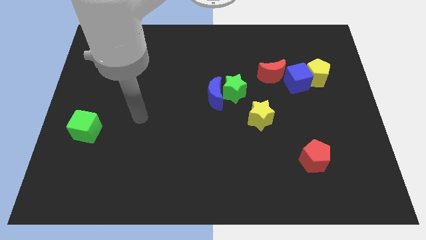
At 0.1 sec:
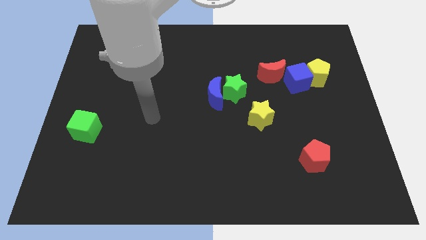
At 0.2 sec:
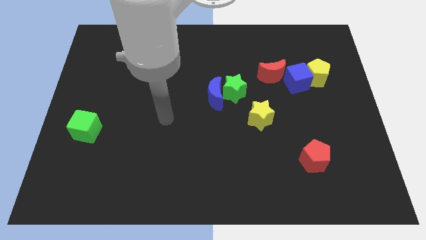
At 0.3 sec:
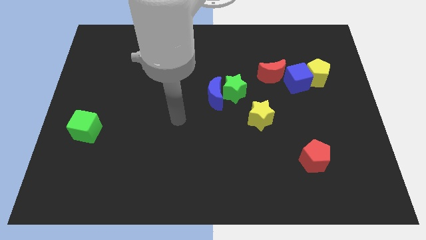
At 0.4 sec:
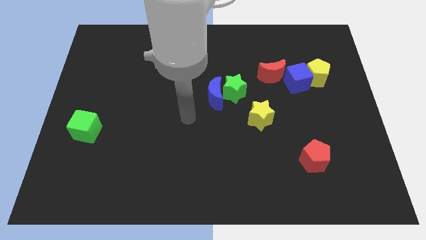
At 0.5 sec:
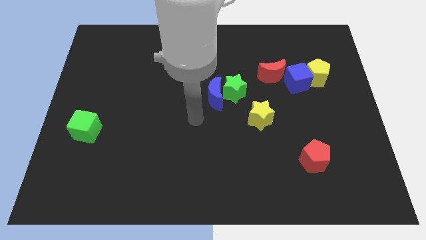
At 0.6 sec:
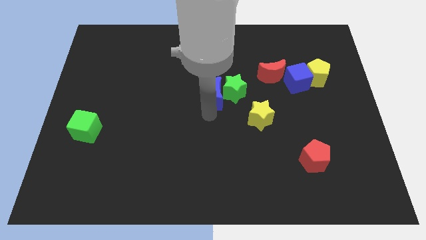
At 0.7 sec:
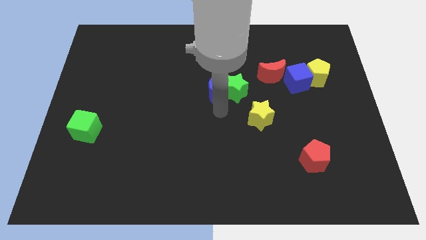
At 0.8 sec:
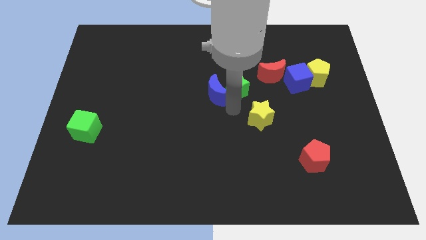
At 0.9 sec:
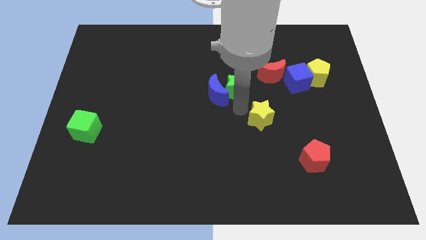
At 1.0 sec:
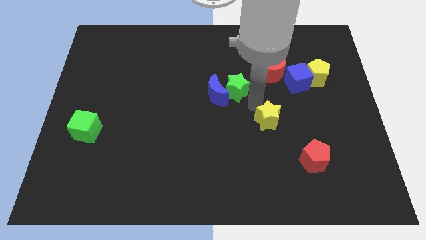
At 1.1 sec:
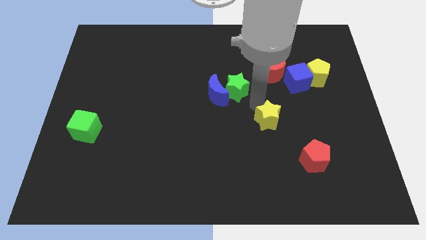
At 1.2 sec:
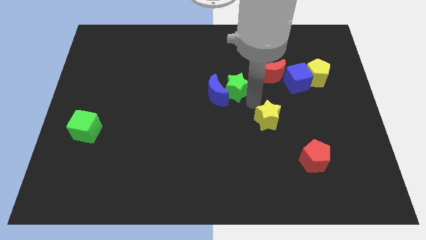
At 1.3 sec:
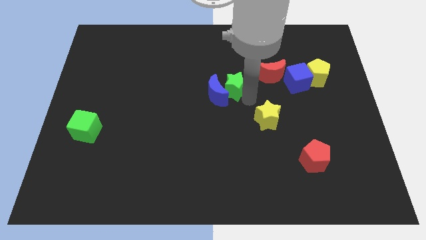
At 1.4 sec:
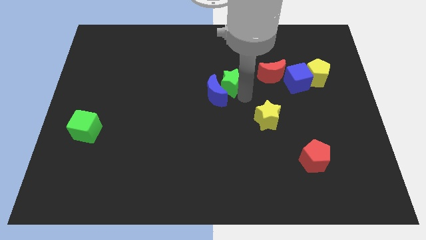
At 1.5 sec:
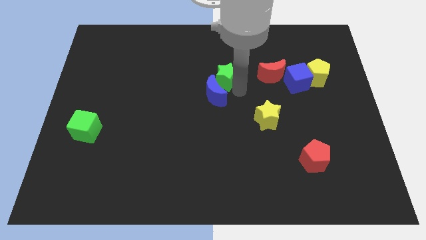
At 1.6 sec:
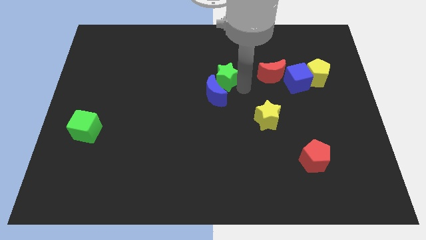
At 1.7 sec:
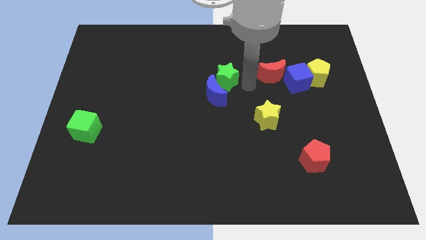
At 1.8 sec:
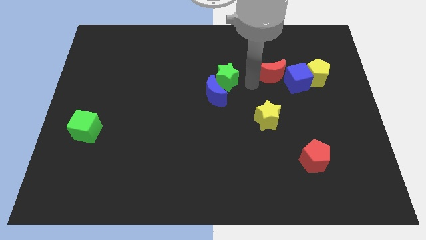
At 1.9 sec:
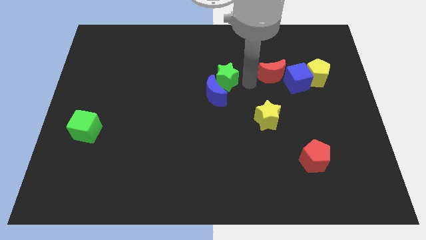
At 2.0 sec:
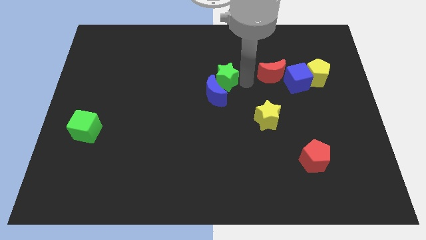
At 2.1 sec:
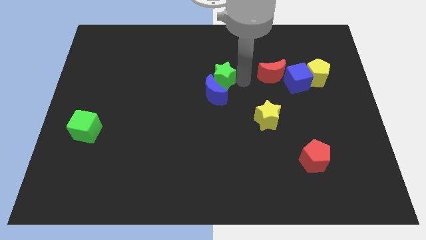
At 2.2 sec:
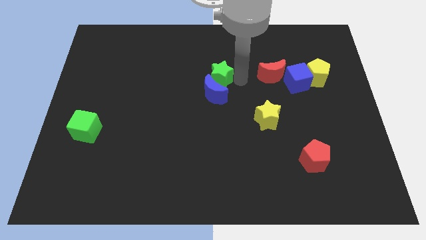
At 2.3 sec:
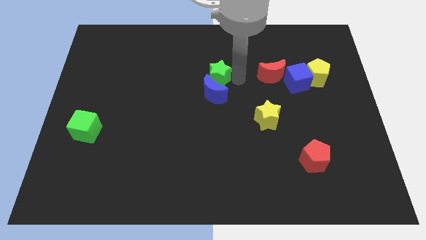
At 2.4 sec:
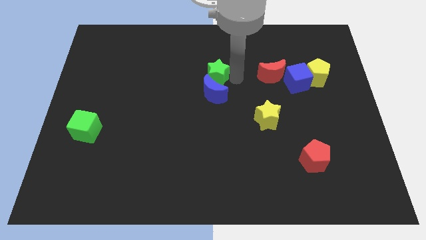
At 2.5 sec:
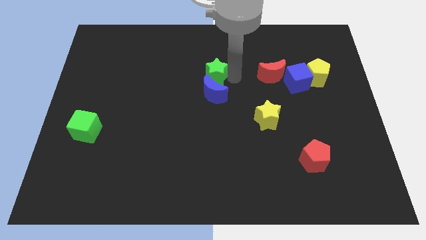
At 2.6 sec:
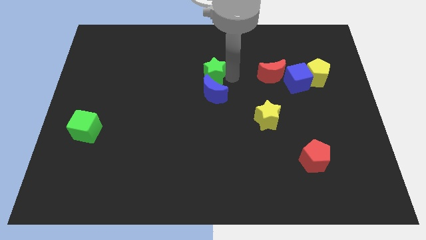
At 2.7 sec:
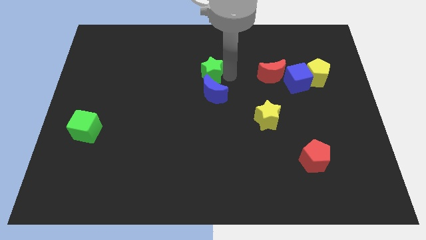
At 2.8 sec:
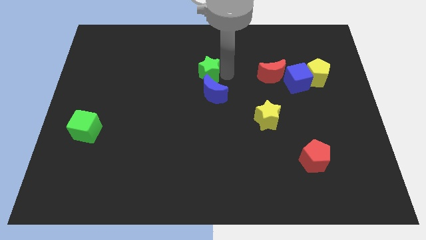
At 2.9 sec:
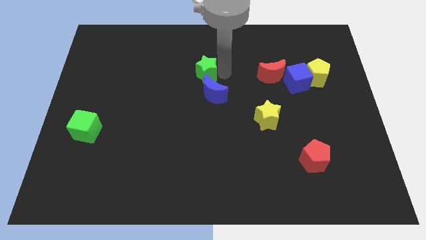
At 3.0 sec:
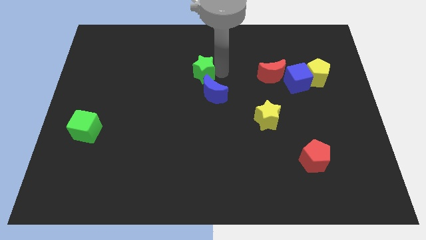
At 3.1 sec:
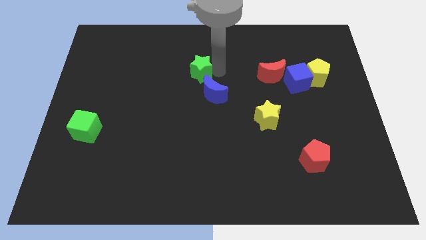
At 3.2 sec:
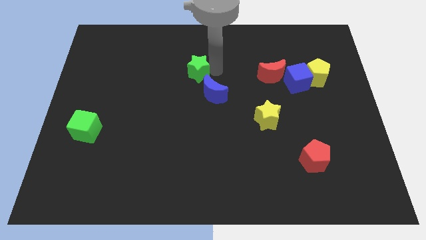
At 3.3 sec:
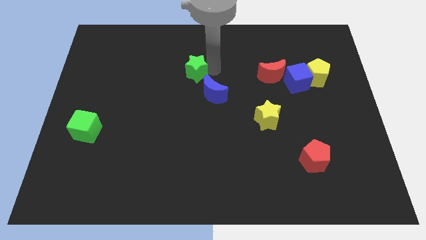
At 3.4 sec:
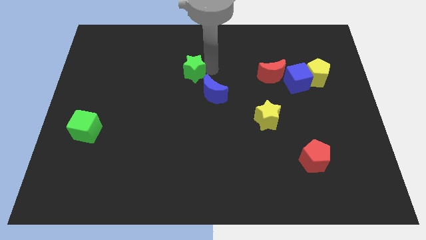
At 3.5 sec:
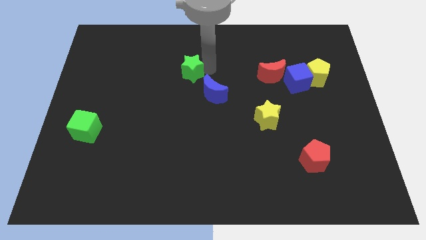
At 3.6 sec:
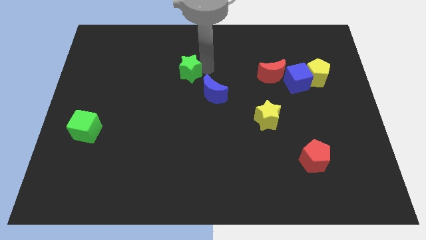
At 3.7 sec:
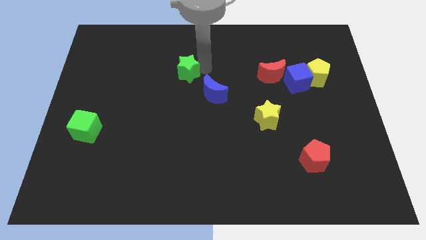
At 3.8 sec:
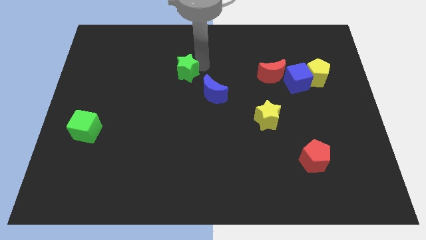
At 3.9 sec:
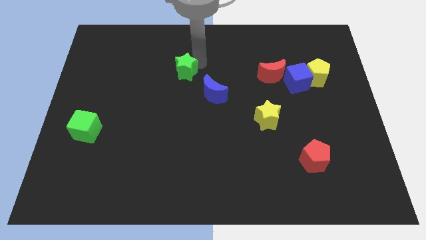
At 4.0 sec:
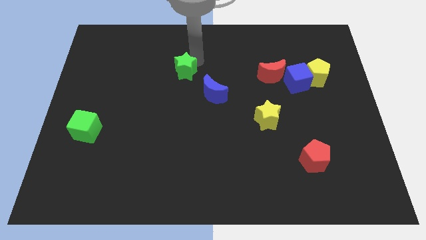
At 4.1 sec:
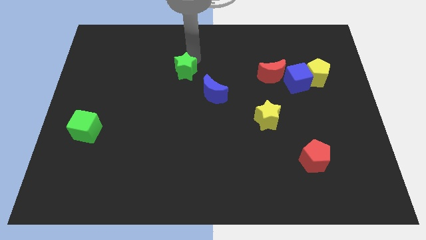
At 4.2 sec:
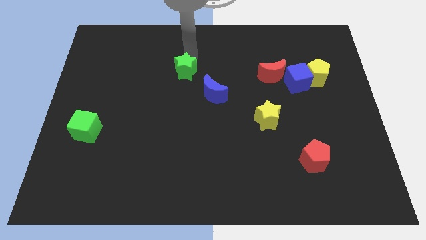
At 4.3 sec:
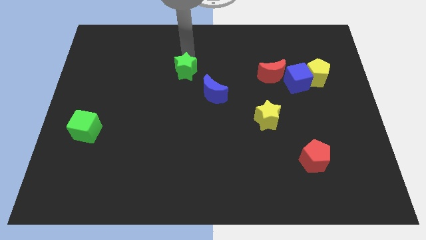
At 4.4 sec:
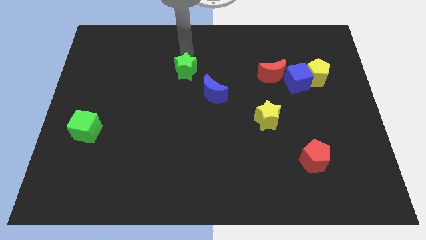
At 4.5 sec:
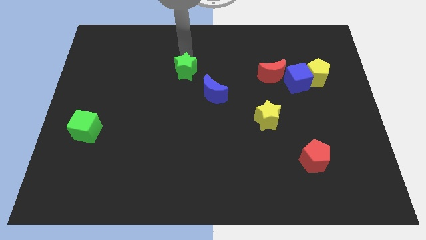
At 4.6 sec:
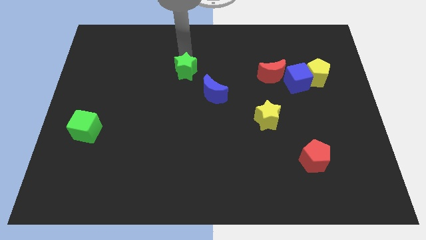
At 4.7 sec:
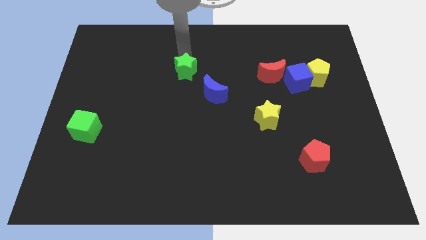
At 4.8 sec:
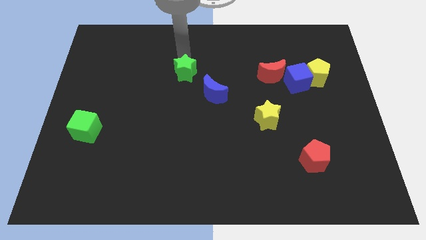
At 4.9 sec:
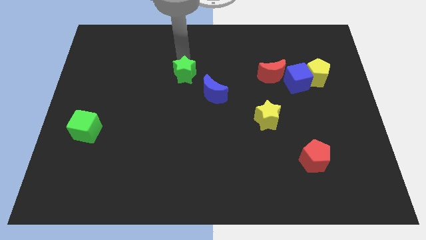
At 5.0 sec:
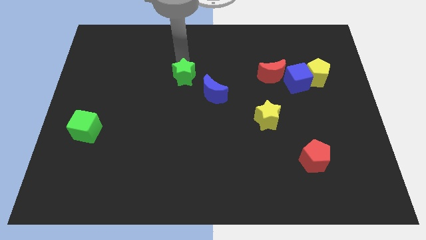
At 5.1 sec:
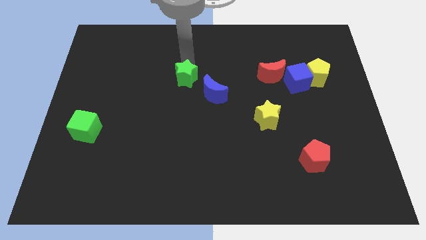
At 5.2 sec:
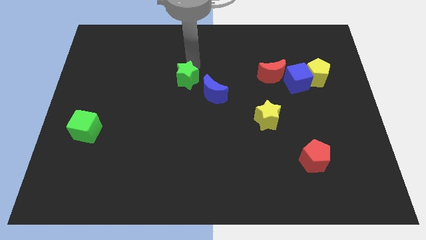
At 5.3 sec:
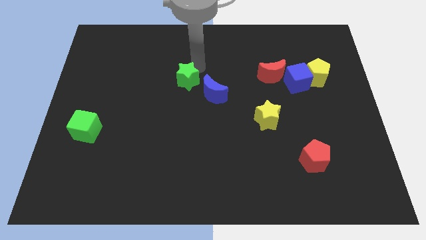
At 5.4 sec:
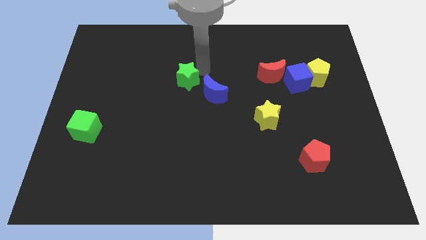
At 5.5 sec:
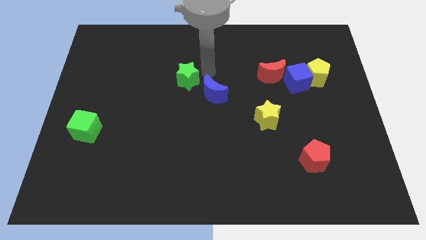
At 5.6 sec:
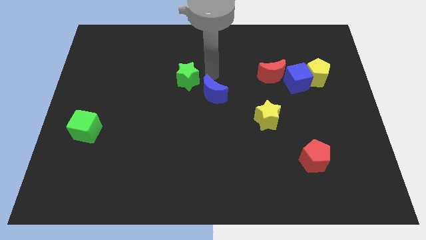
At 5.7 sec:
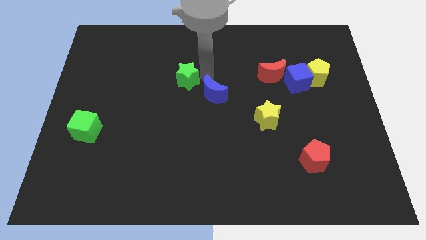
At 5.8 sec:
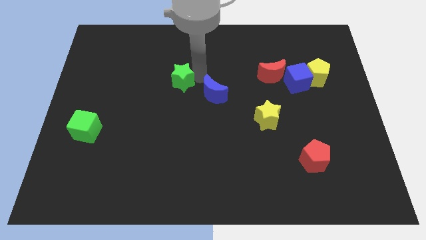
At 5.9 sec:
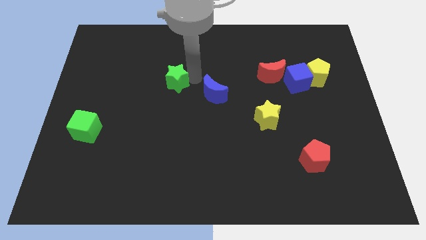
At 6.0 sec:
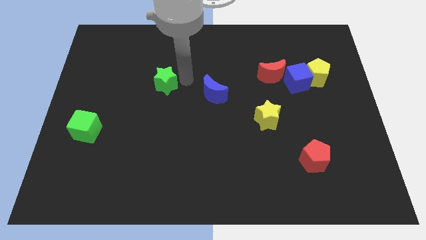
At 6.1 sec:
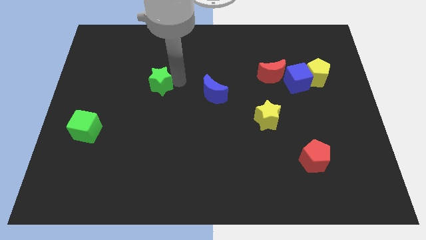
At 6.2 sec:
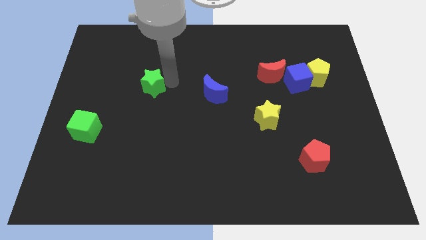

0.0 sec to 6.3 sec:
slide the green star to the left

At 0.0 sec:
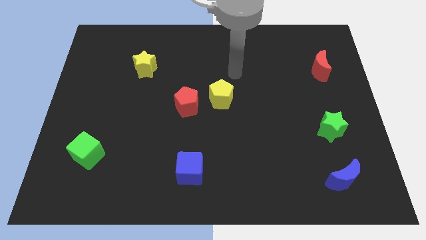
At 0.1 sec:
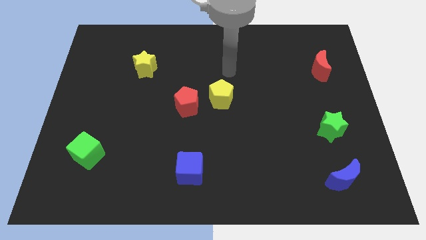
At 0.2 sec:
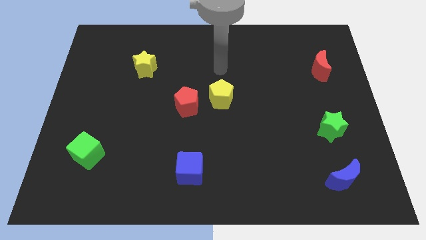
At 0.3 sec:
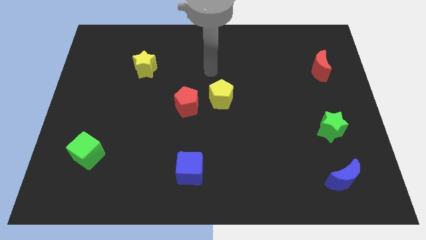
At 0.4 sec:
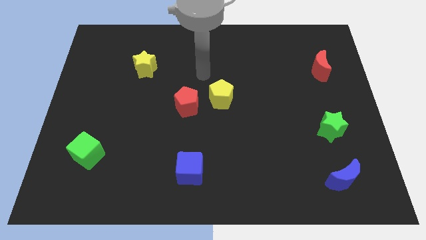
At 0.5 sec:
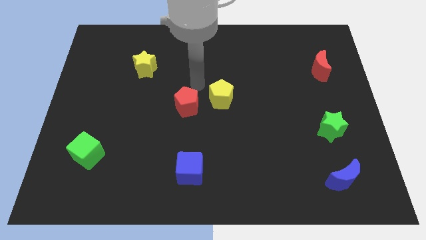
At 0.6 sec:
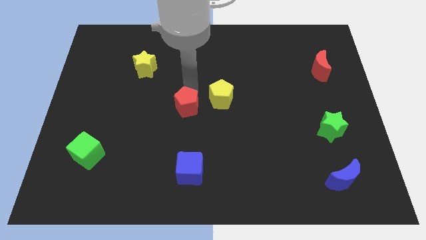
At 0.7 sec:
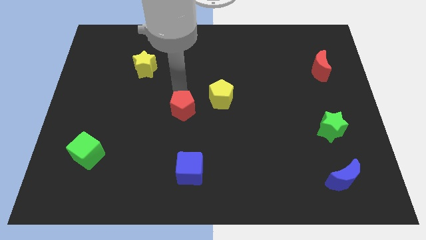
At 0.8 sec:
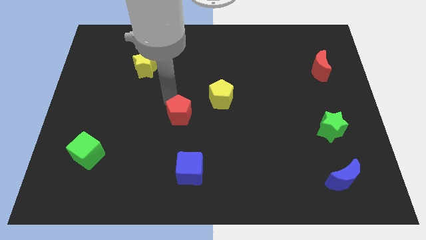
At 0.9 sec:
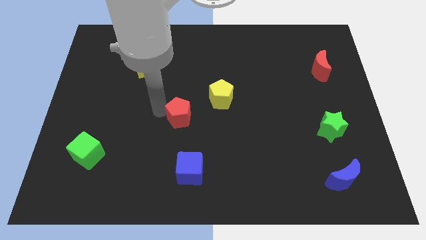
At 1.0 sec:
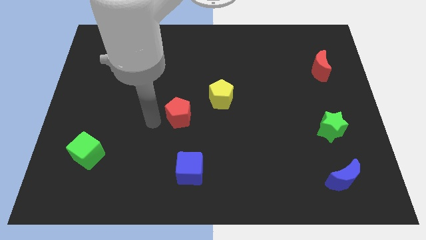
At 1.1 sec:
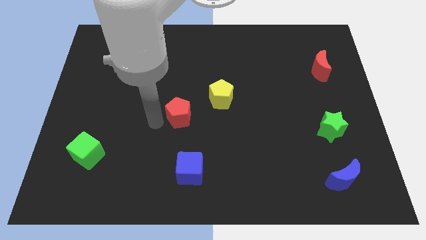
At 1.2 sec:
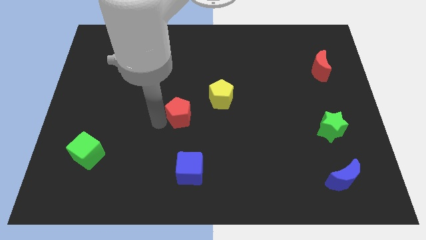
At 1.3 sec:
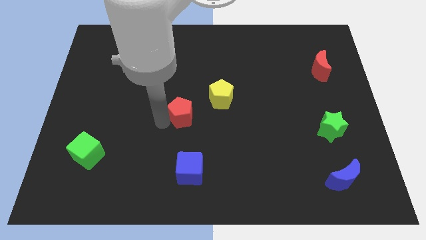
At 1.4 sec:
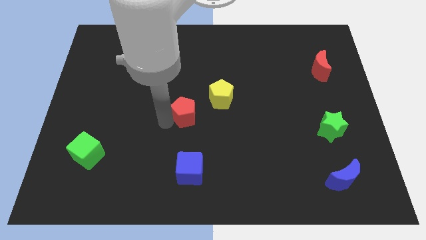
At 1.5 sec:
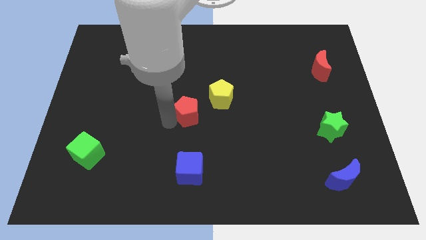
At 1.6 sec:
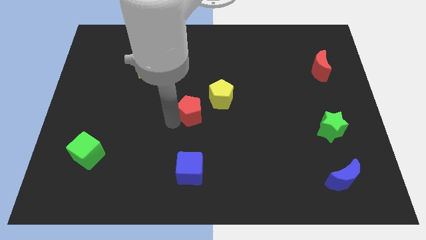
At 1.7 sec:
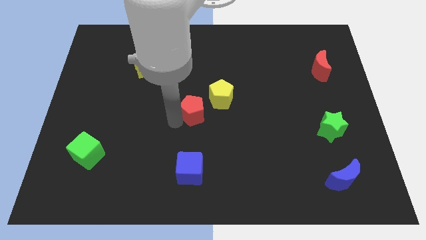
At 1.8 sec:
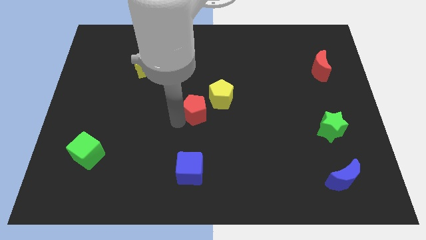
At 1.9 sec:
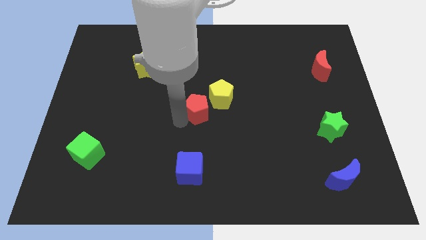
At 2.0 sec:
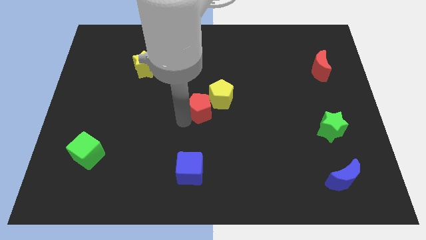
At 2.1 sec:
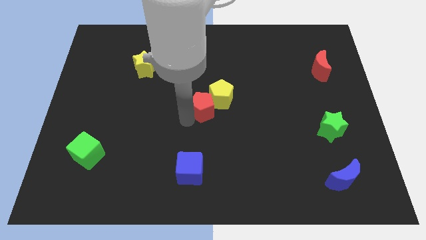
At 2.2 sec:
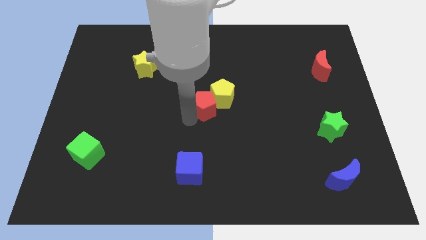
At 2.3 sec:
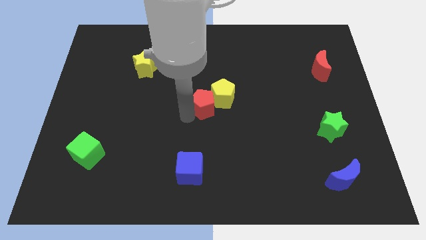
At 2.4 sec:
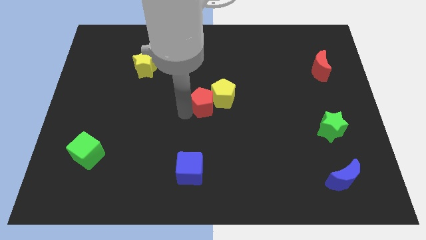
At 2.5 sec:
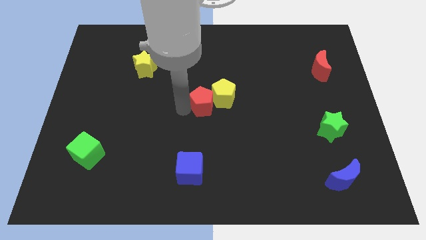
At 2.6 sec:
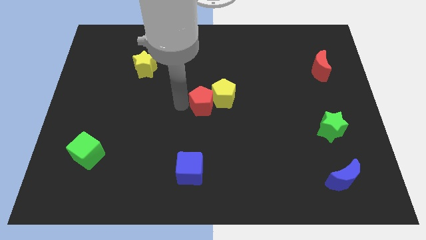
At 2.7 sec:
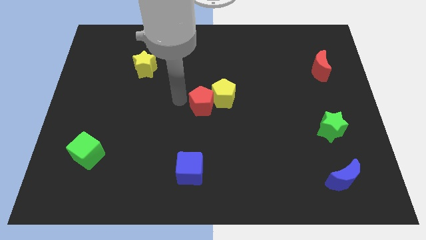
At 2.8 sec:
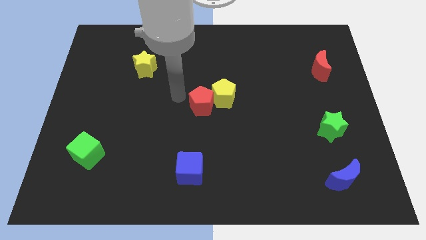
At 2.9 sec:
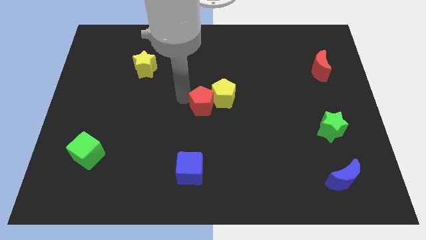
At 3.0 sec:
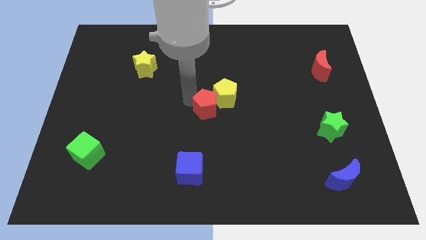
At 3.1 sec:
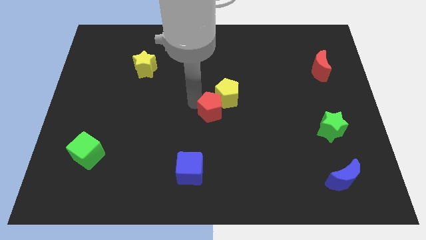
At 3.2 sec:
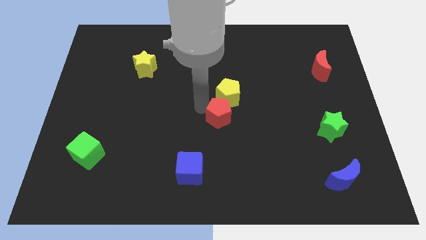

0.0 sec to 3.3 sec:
push the red pentagon slightly to the right
